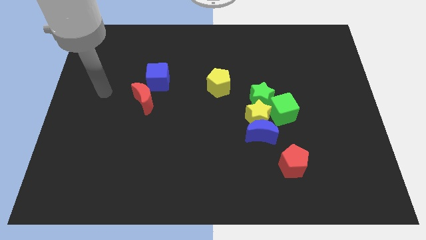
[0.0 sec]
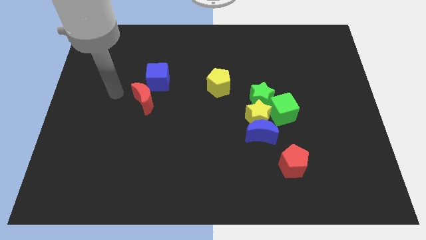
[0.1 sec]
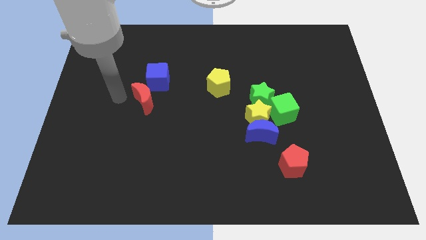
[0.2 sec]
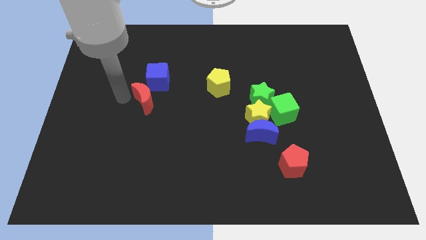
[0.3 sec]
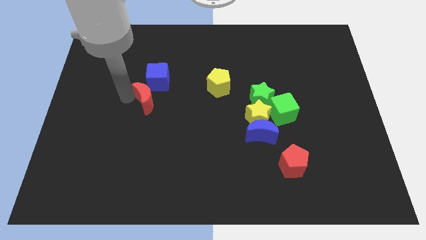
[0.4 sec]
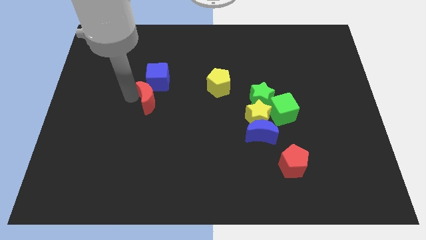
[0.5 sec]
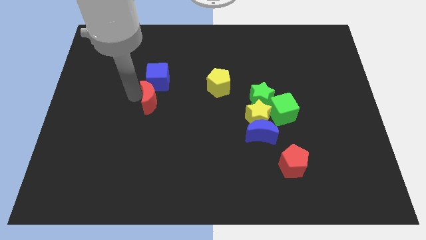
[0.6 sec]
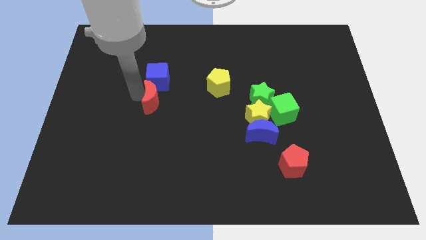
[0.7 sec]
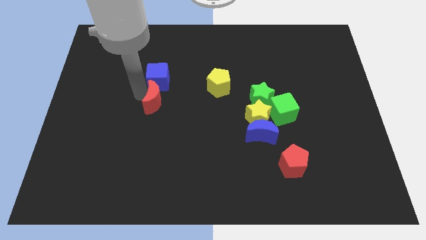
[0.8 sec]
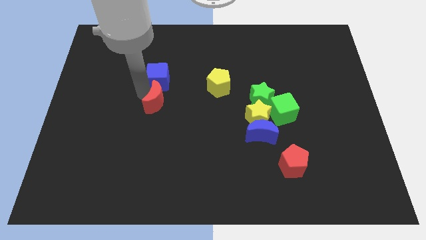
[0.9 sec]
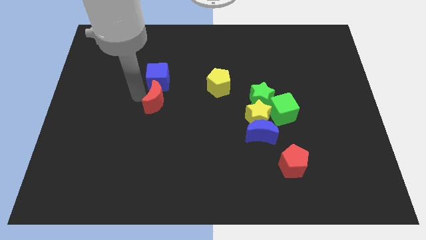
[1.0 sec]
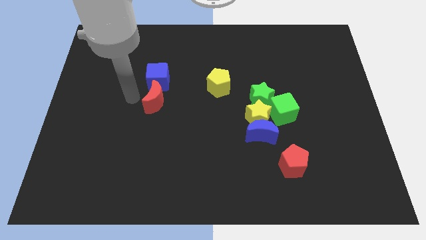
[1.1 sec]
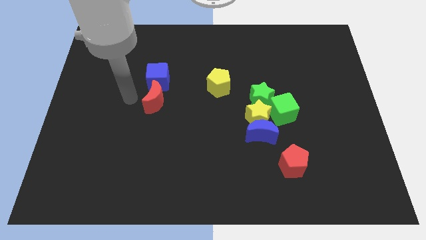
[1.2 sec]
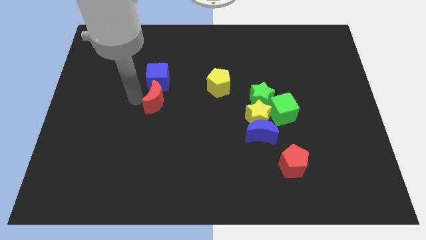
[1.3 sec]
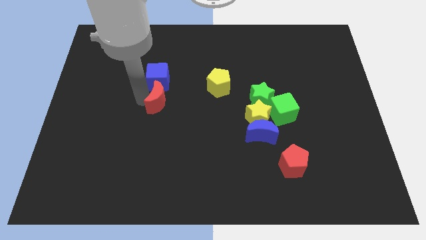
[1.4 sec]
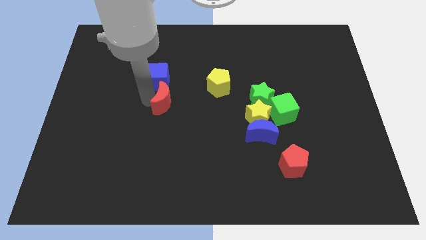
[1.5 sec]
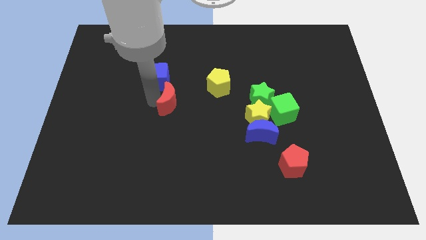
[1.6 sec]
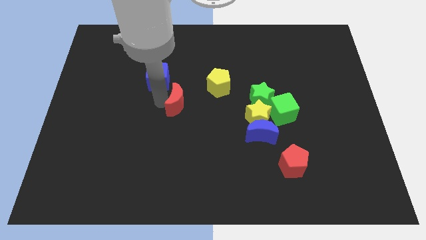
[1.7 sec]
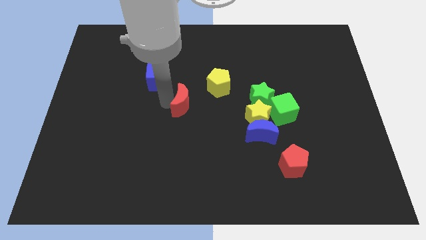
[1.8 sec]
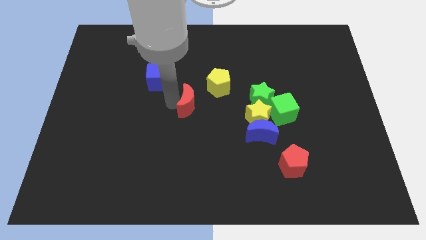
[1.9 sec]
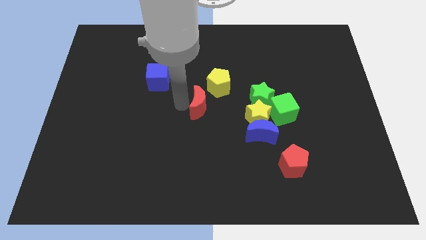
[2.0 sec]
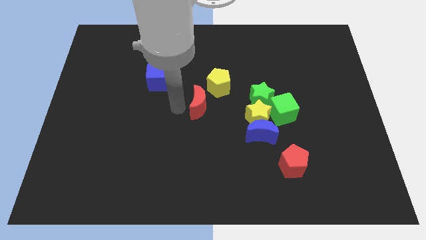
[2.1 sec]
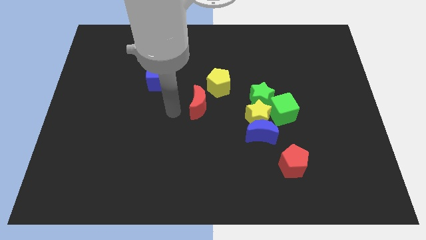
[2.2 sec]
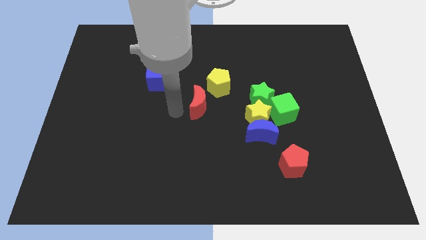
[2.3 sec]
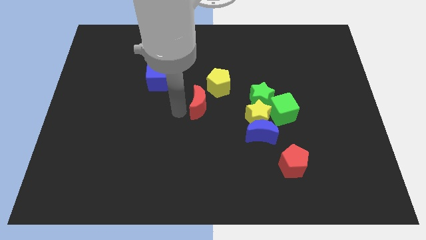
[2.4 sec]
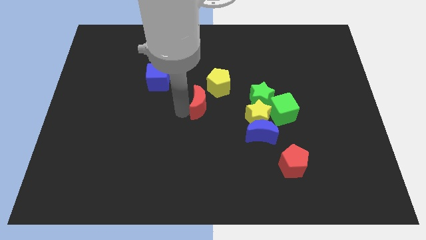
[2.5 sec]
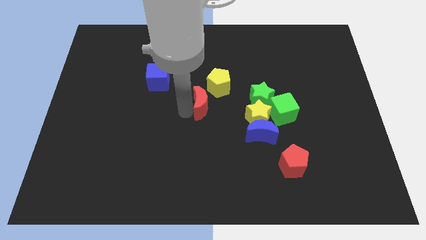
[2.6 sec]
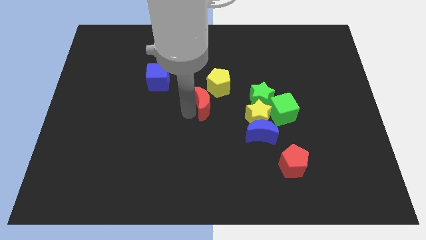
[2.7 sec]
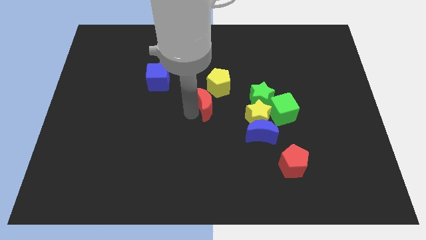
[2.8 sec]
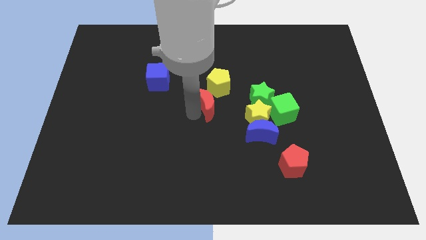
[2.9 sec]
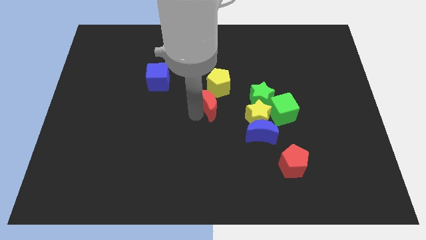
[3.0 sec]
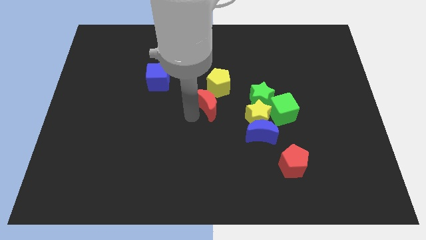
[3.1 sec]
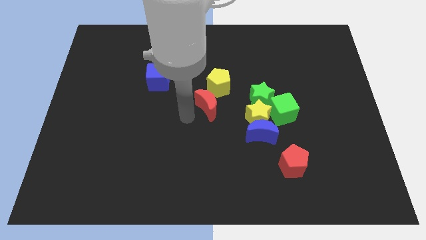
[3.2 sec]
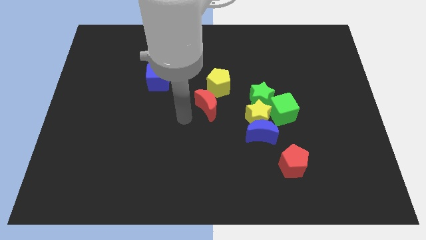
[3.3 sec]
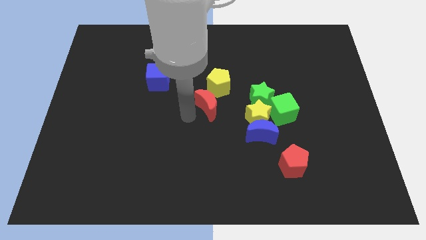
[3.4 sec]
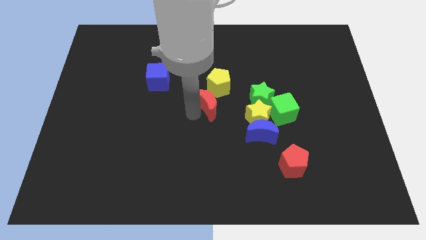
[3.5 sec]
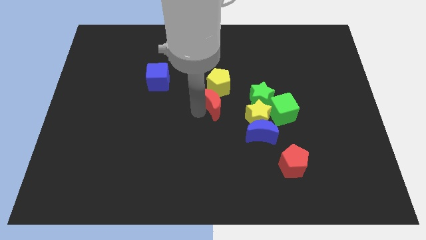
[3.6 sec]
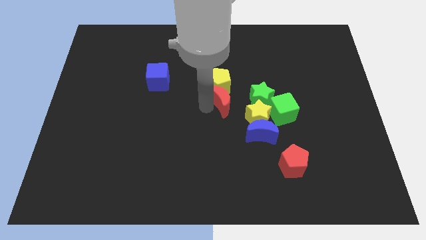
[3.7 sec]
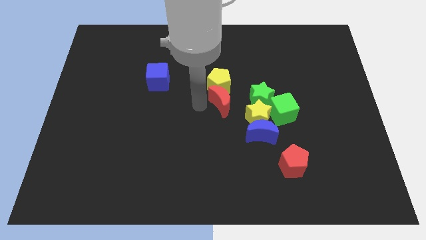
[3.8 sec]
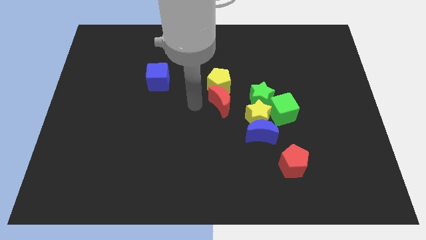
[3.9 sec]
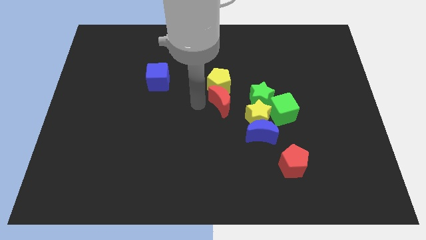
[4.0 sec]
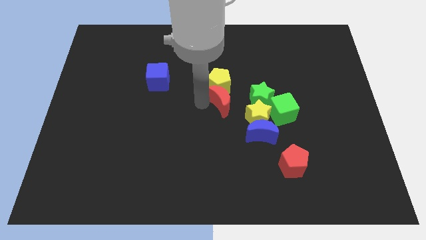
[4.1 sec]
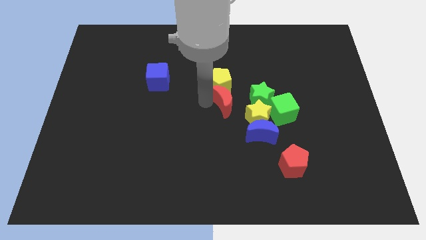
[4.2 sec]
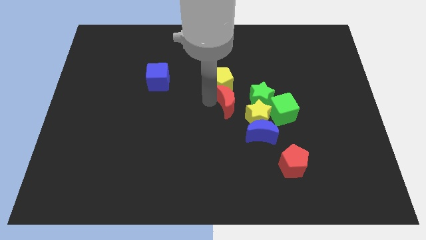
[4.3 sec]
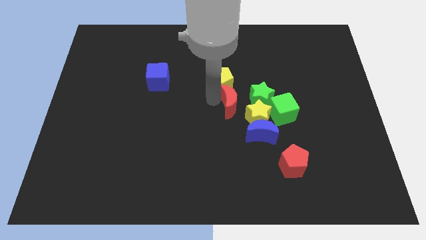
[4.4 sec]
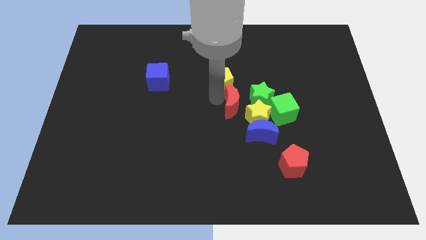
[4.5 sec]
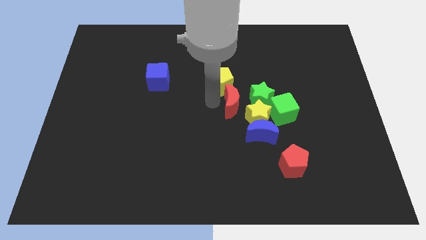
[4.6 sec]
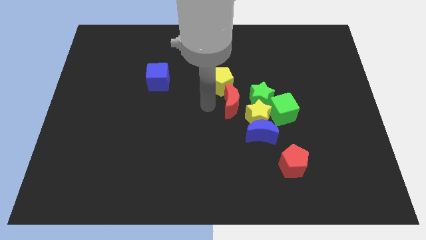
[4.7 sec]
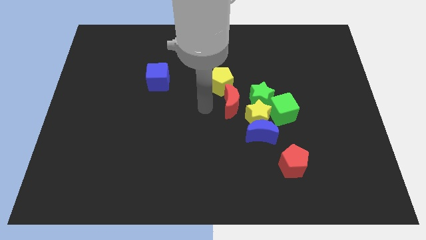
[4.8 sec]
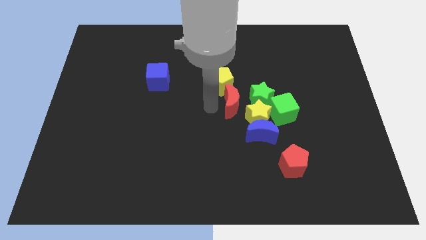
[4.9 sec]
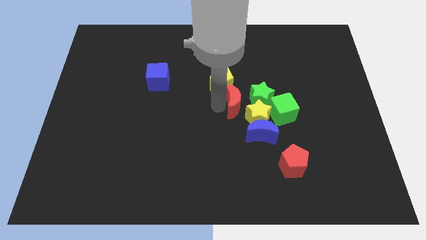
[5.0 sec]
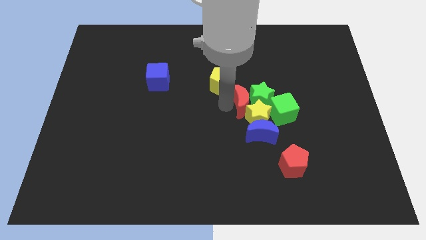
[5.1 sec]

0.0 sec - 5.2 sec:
put the red moon next to the green star

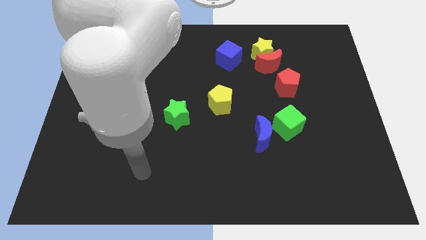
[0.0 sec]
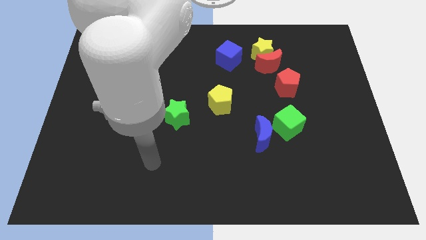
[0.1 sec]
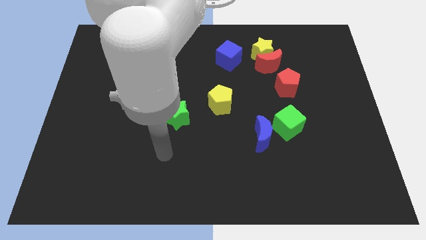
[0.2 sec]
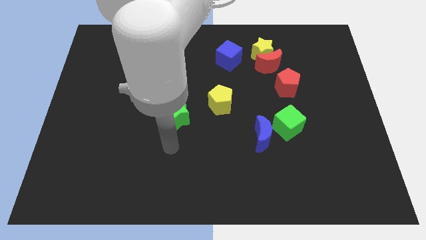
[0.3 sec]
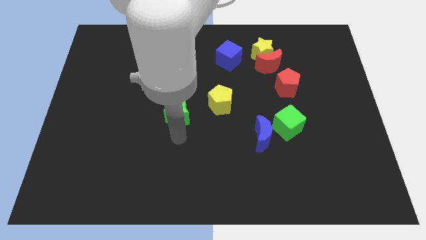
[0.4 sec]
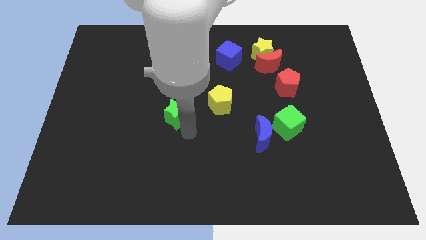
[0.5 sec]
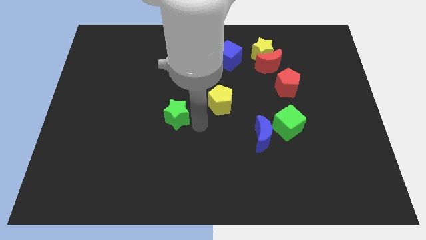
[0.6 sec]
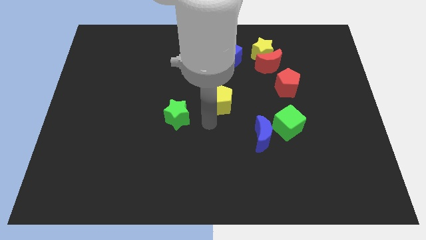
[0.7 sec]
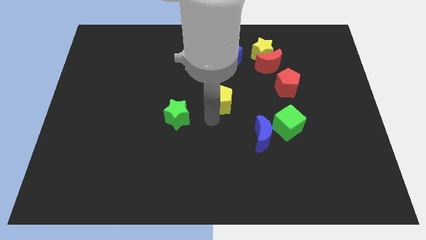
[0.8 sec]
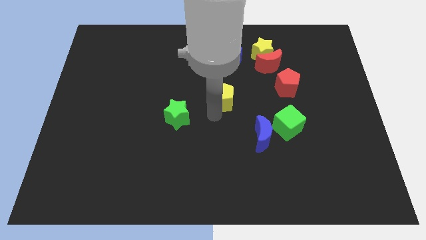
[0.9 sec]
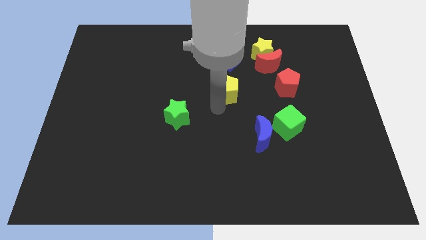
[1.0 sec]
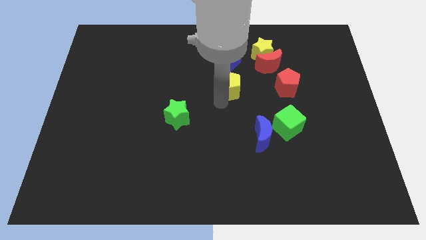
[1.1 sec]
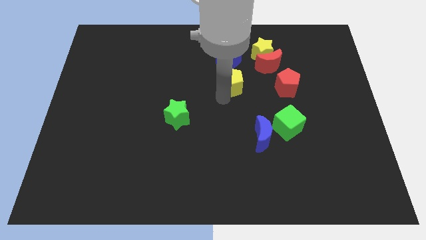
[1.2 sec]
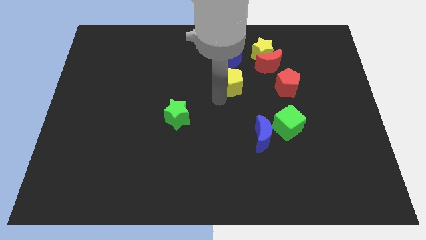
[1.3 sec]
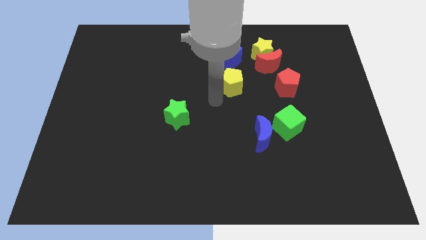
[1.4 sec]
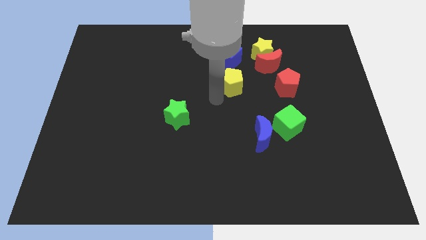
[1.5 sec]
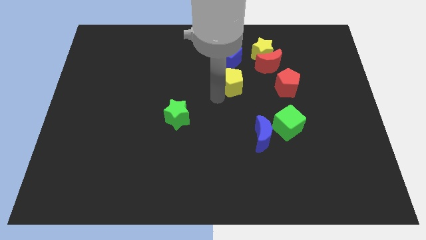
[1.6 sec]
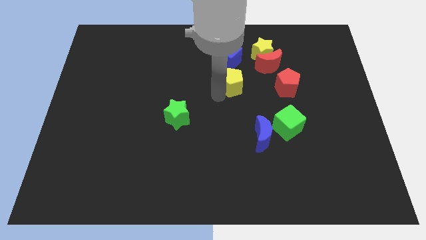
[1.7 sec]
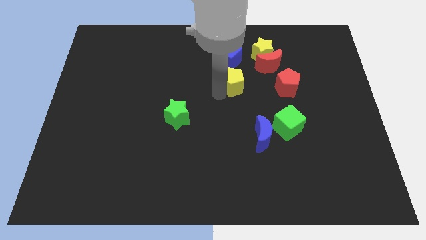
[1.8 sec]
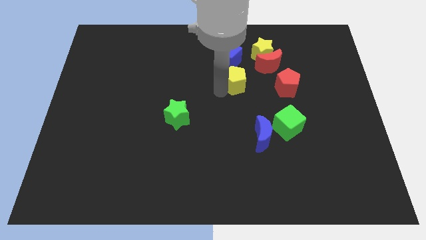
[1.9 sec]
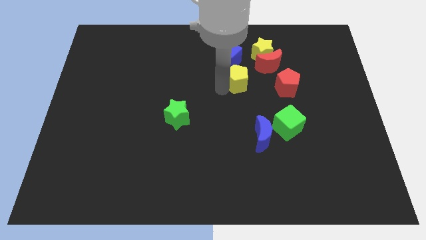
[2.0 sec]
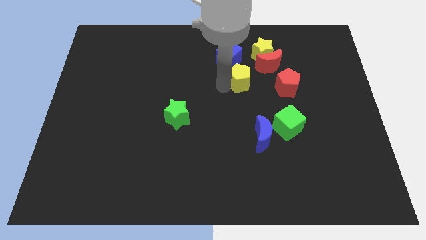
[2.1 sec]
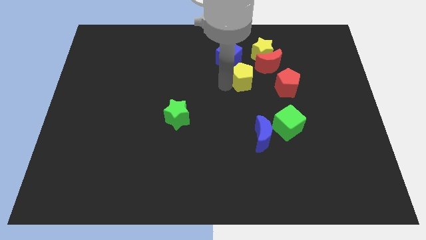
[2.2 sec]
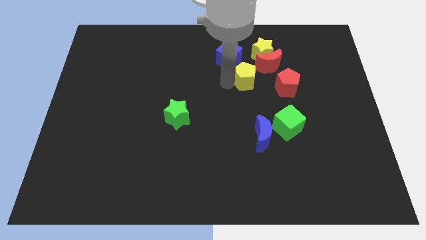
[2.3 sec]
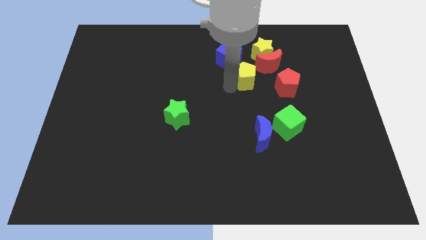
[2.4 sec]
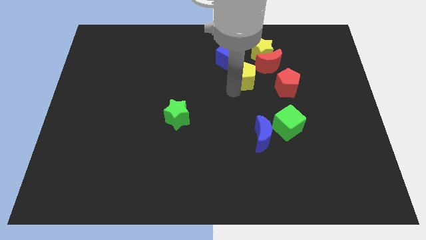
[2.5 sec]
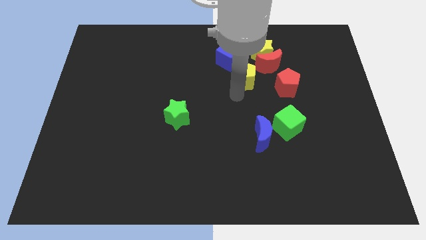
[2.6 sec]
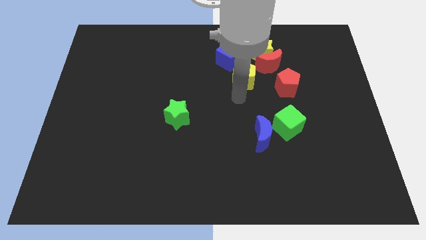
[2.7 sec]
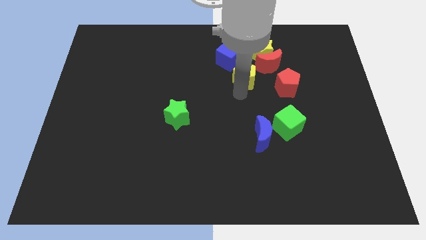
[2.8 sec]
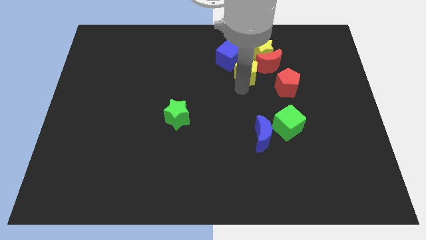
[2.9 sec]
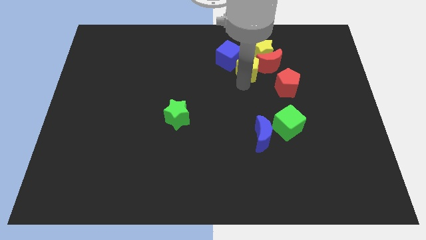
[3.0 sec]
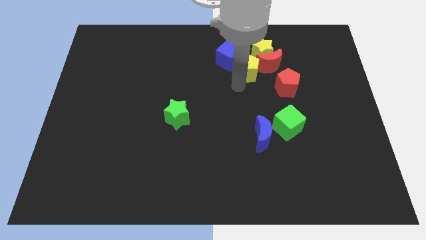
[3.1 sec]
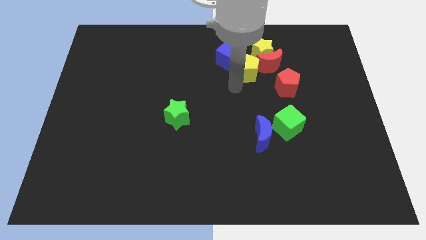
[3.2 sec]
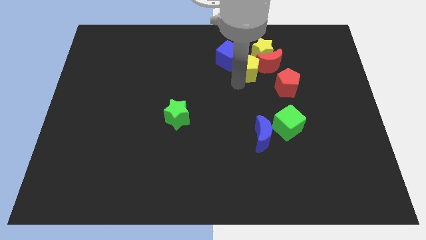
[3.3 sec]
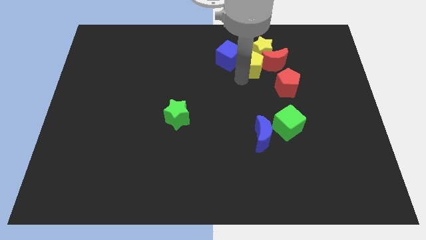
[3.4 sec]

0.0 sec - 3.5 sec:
slide the yellow pentagon next to the yellow star
